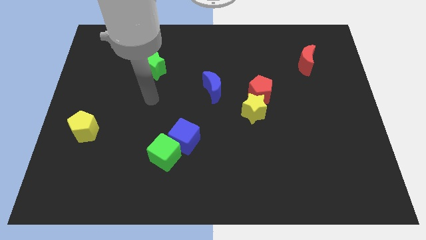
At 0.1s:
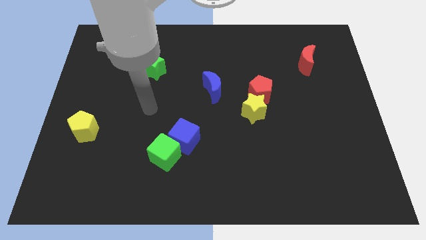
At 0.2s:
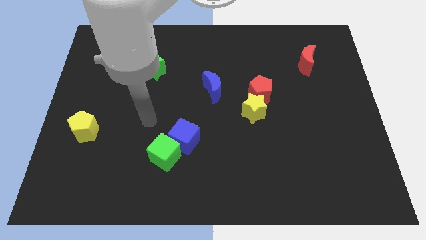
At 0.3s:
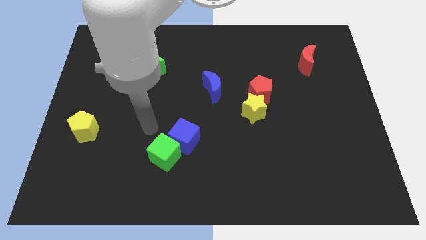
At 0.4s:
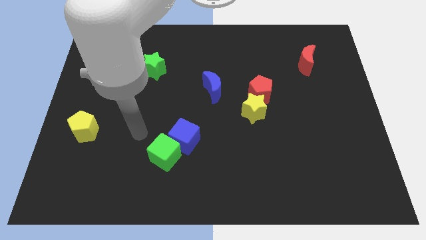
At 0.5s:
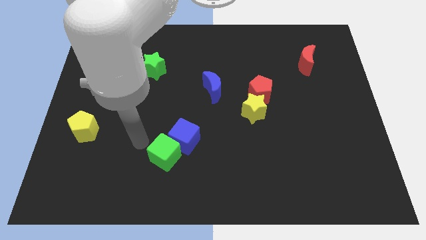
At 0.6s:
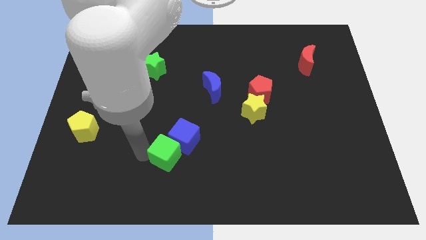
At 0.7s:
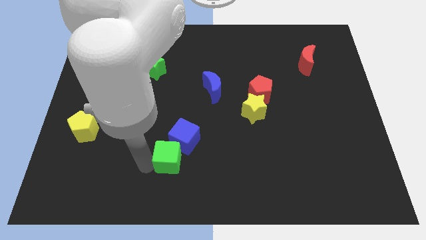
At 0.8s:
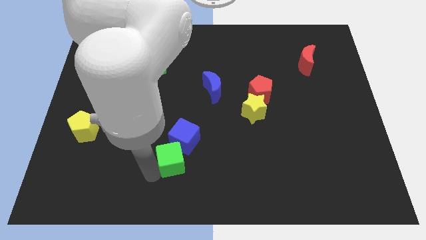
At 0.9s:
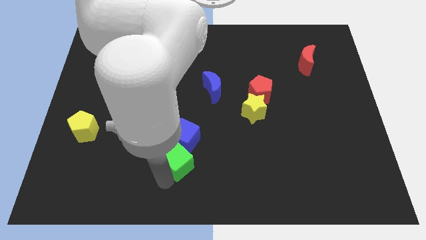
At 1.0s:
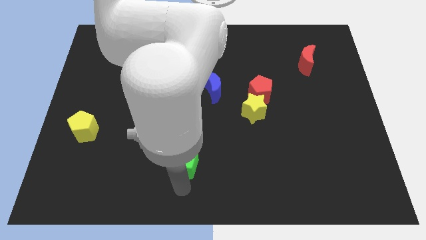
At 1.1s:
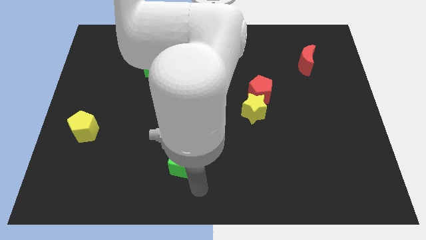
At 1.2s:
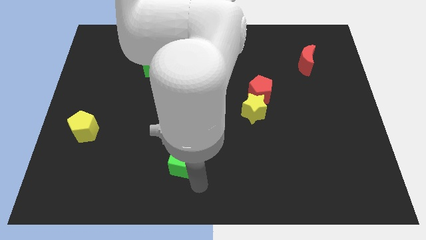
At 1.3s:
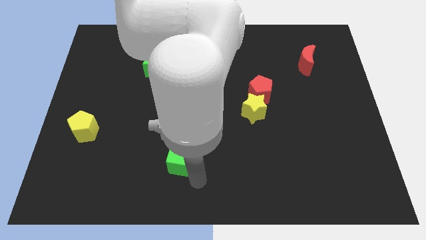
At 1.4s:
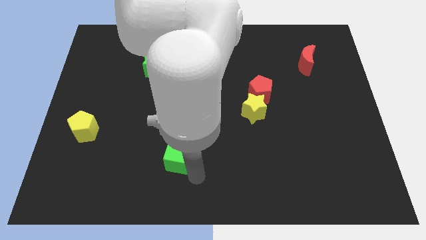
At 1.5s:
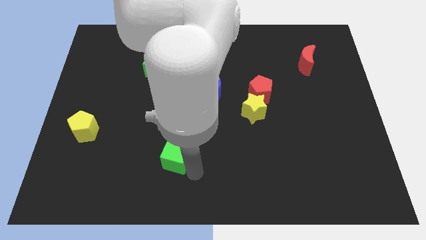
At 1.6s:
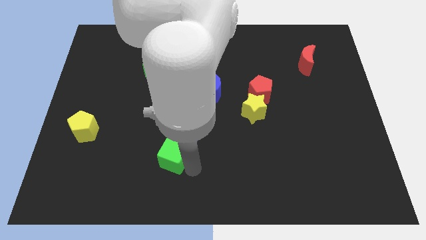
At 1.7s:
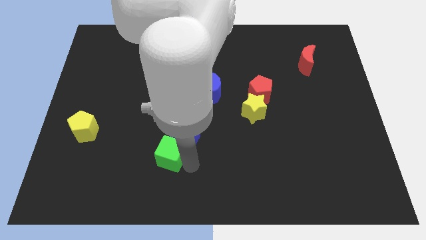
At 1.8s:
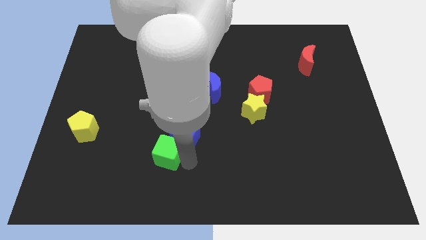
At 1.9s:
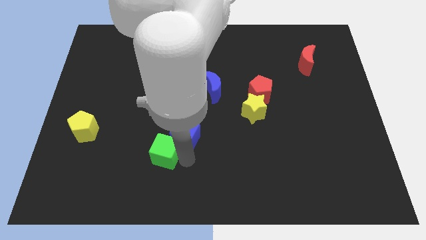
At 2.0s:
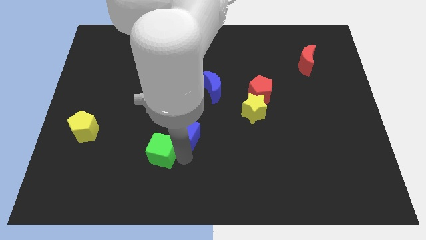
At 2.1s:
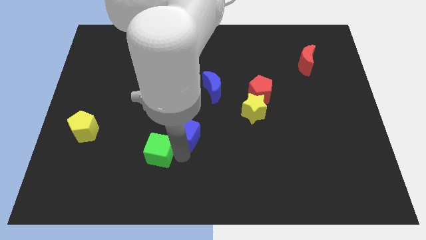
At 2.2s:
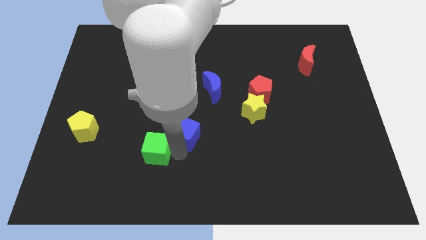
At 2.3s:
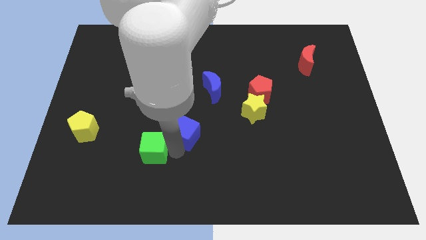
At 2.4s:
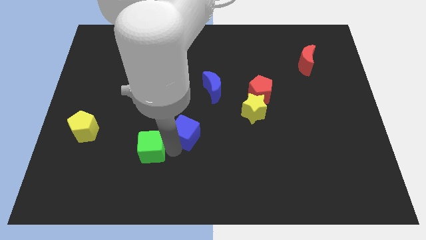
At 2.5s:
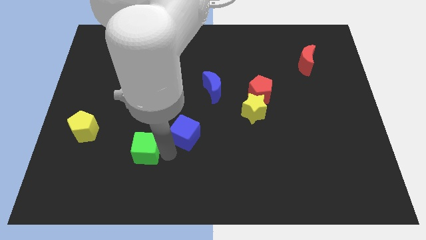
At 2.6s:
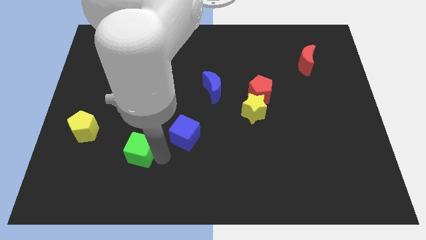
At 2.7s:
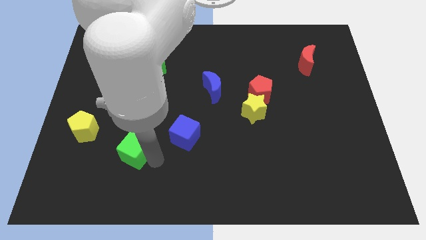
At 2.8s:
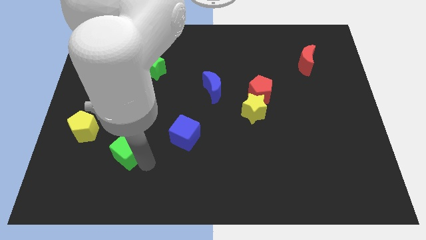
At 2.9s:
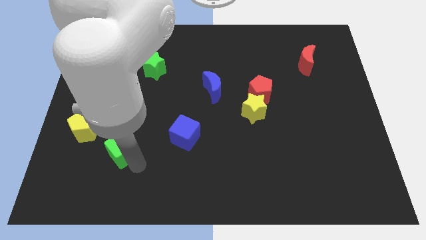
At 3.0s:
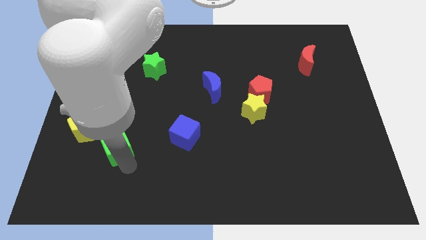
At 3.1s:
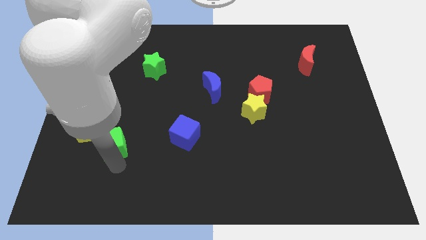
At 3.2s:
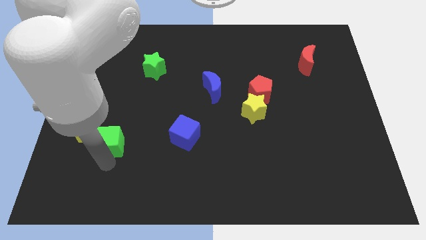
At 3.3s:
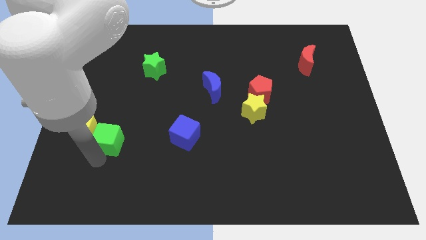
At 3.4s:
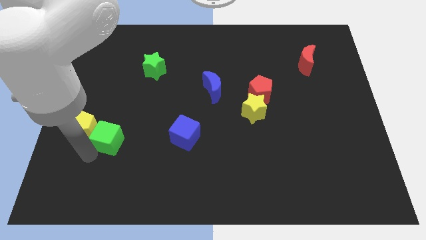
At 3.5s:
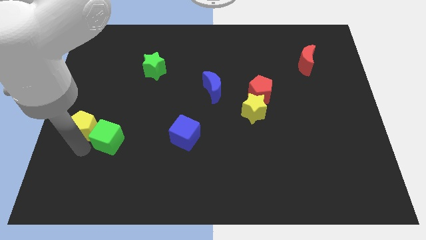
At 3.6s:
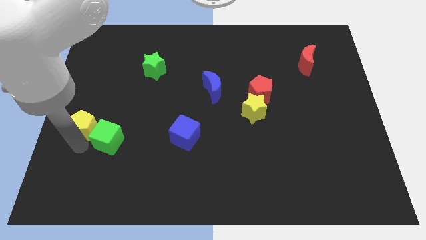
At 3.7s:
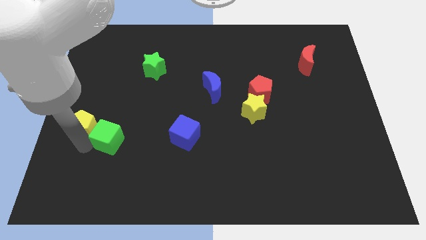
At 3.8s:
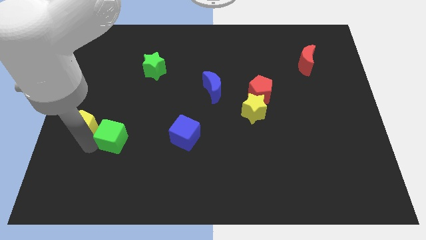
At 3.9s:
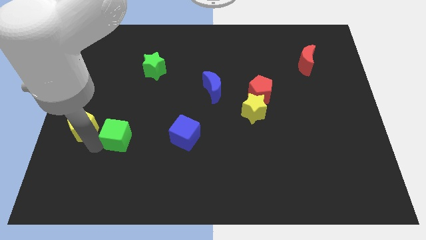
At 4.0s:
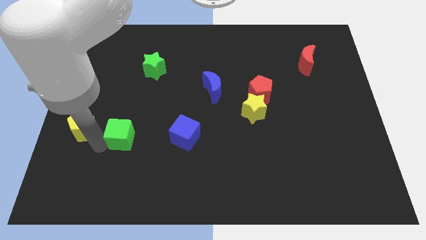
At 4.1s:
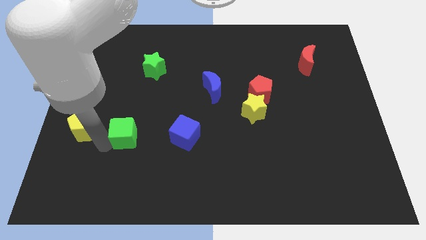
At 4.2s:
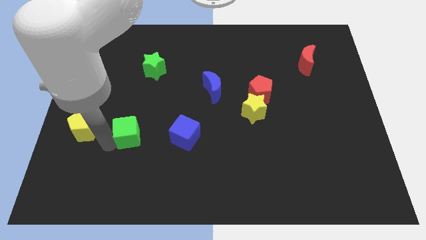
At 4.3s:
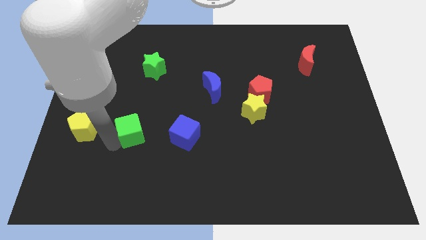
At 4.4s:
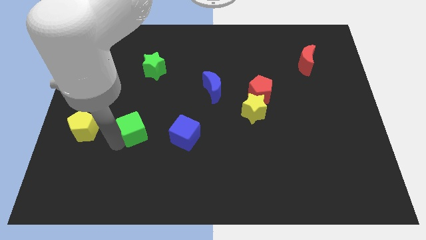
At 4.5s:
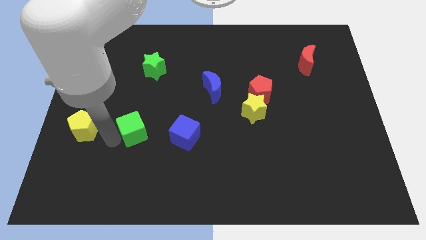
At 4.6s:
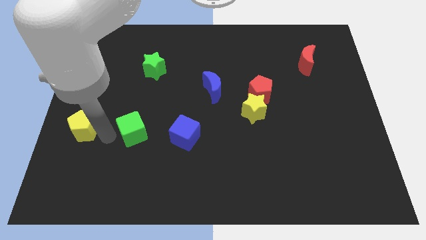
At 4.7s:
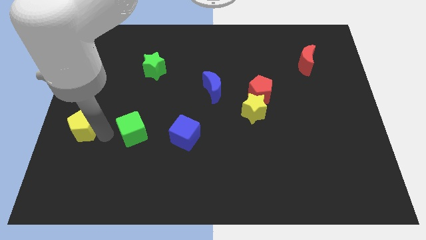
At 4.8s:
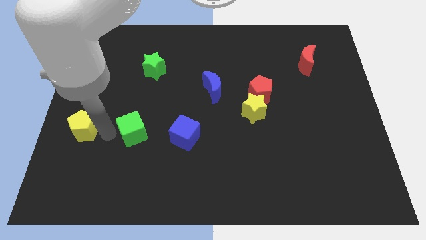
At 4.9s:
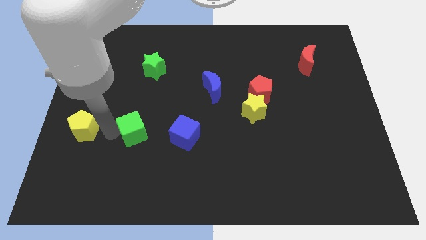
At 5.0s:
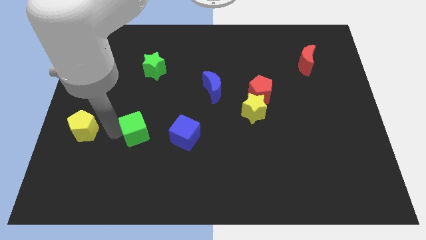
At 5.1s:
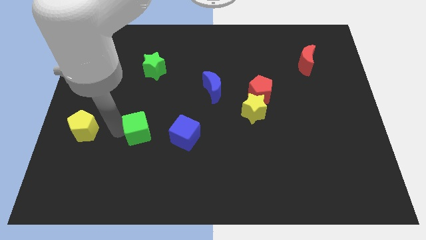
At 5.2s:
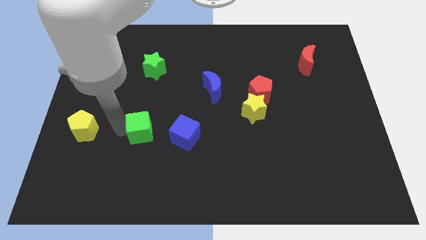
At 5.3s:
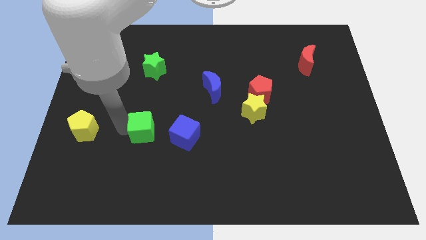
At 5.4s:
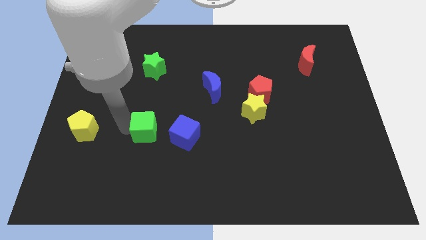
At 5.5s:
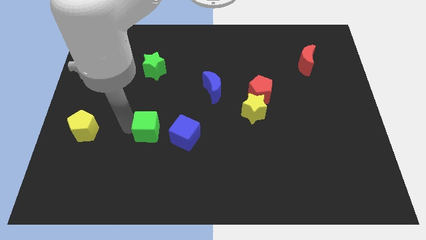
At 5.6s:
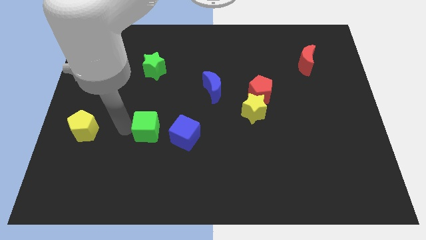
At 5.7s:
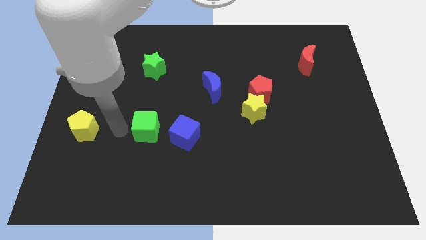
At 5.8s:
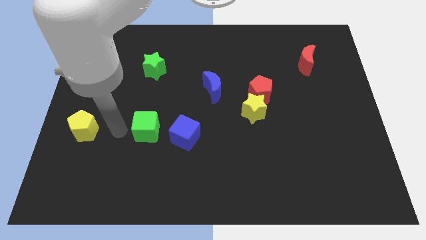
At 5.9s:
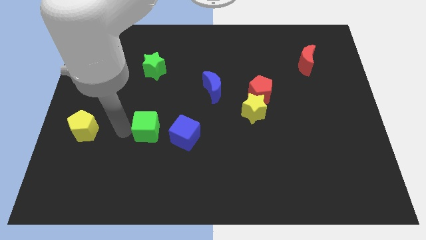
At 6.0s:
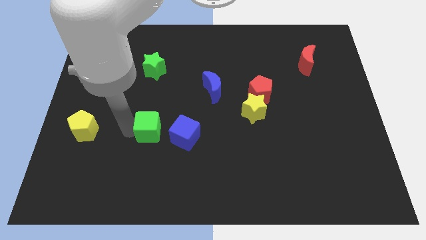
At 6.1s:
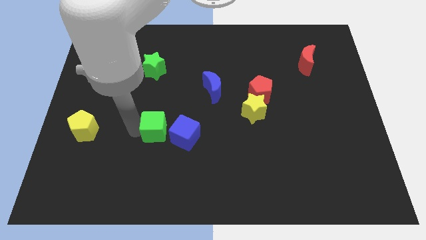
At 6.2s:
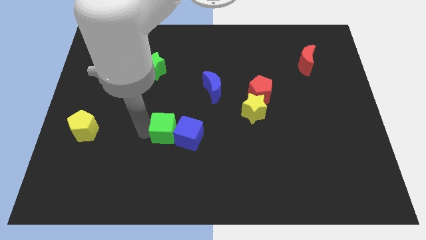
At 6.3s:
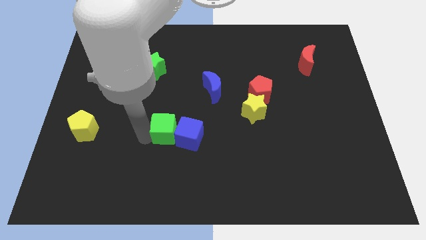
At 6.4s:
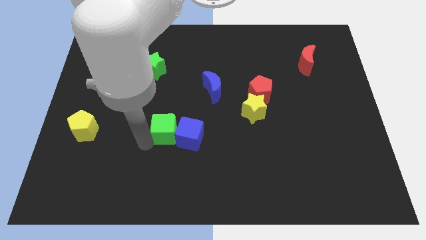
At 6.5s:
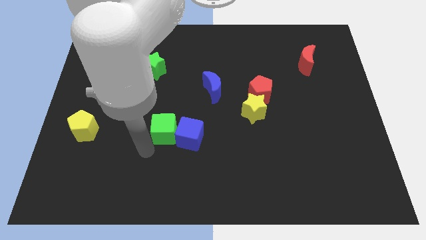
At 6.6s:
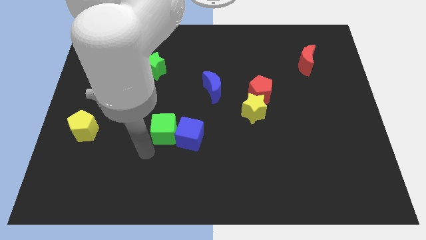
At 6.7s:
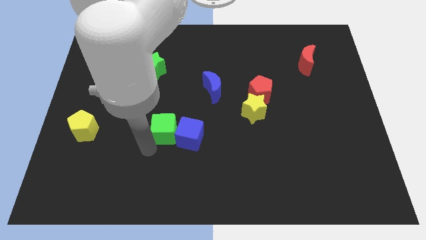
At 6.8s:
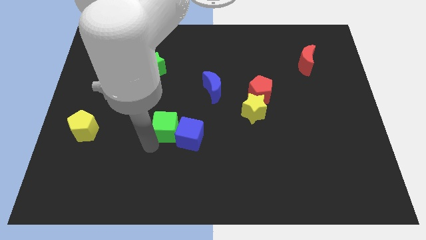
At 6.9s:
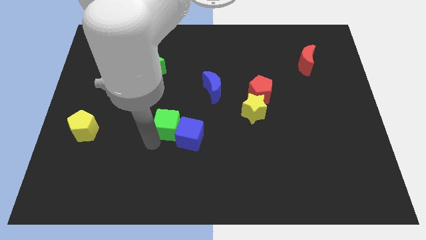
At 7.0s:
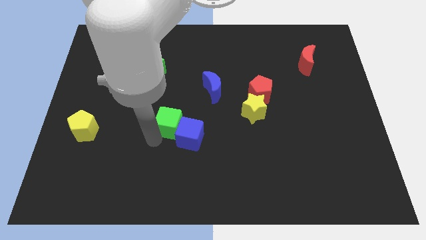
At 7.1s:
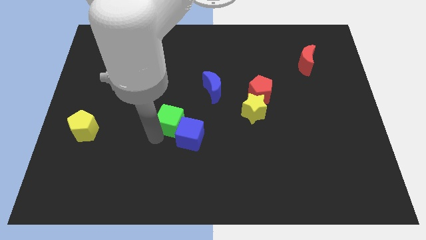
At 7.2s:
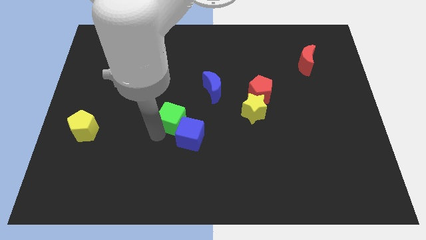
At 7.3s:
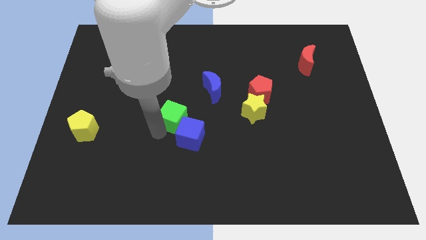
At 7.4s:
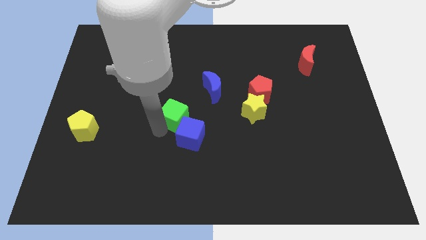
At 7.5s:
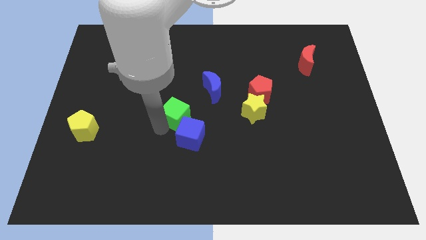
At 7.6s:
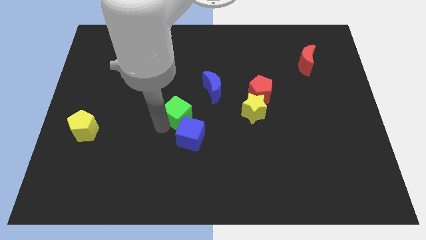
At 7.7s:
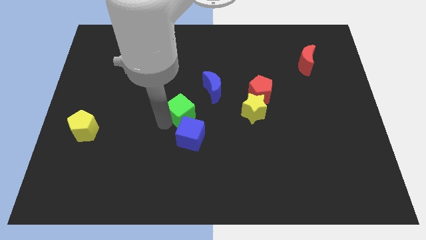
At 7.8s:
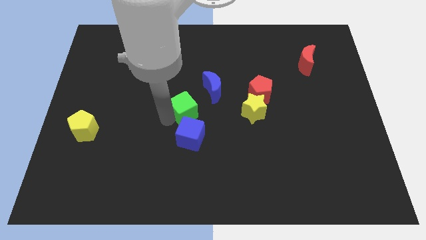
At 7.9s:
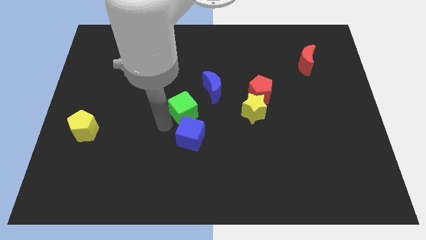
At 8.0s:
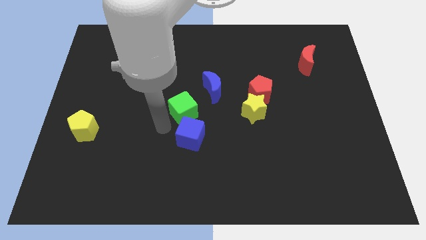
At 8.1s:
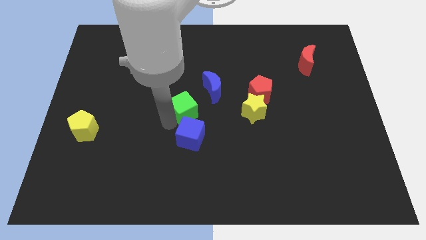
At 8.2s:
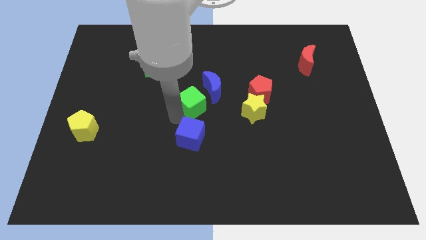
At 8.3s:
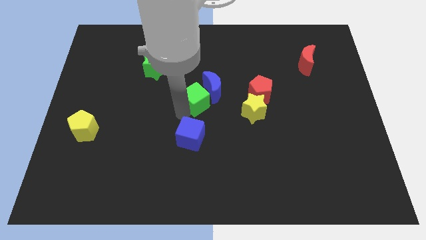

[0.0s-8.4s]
move the green cube next to the blue moon
